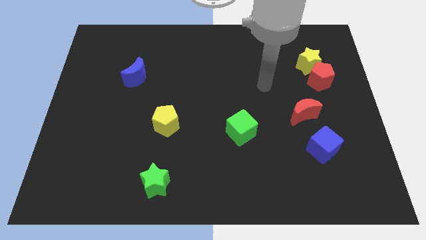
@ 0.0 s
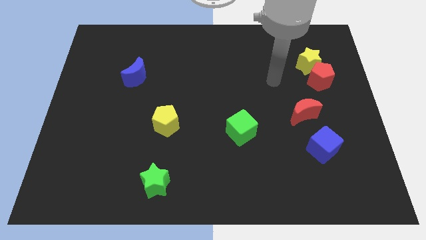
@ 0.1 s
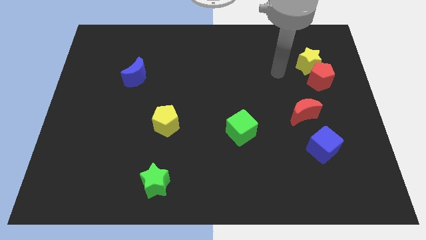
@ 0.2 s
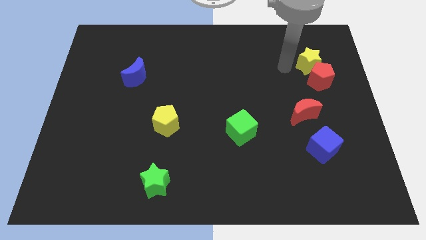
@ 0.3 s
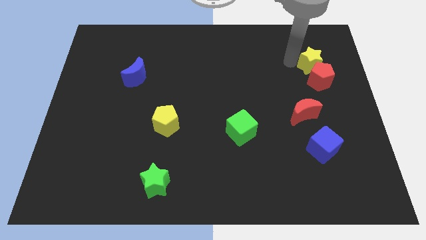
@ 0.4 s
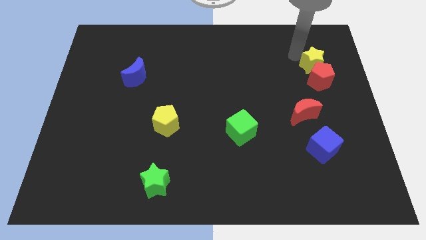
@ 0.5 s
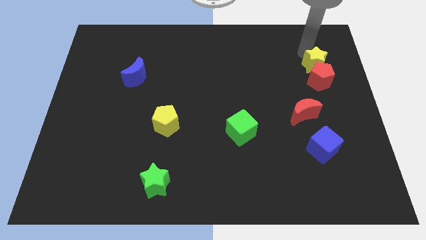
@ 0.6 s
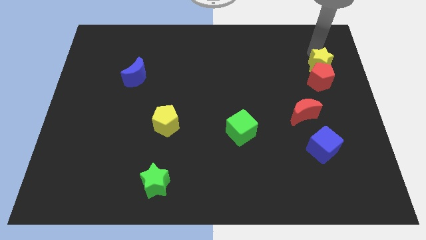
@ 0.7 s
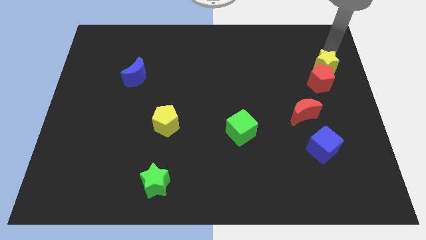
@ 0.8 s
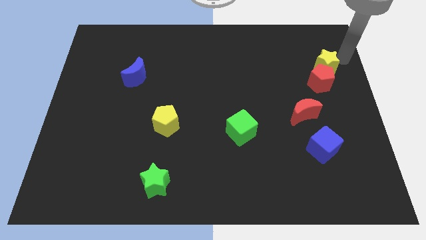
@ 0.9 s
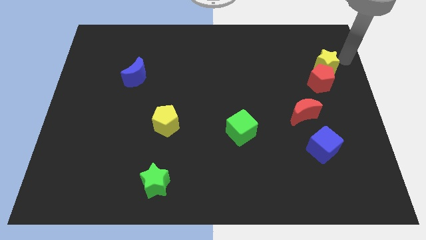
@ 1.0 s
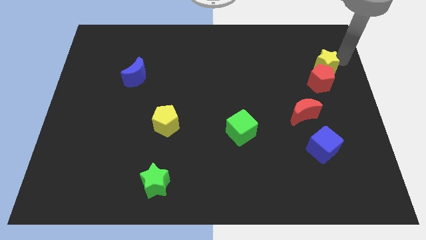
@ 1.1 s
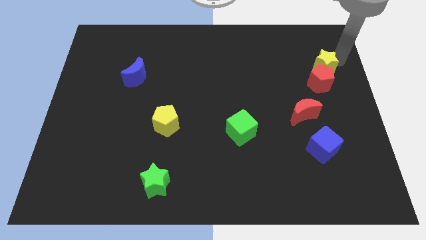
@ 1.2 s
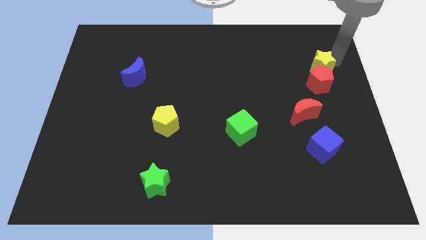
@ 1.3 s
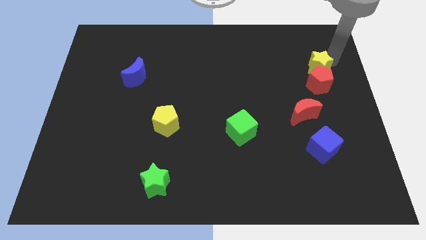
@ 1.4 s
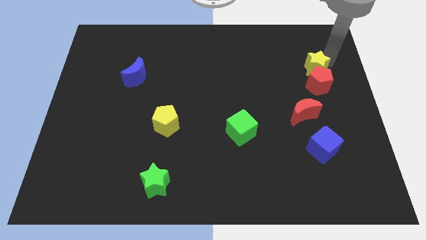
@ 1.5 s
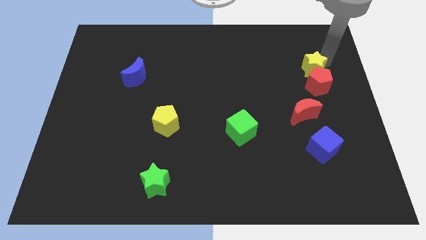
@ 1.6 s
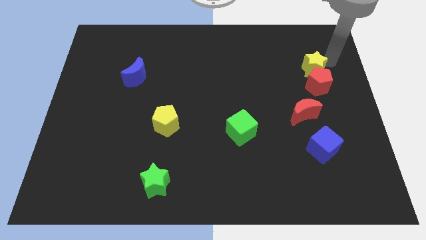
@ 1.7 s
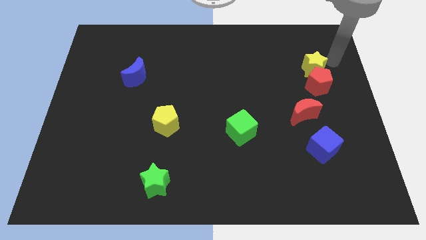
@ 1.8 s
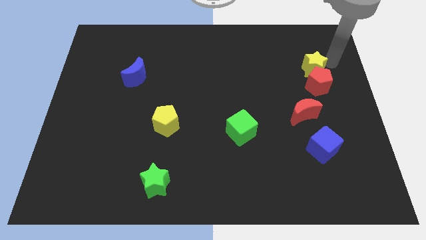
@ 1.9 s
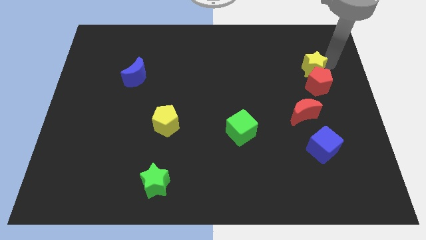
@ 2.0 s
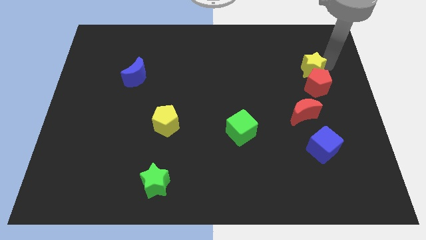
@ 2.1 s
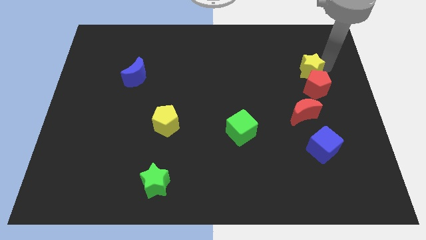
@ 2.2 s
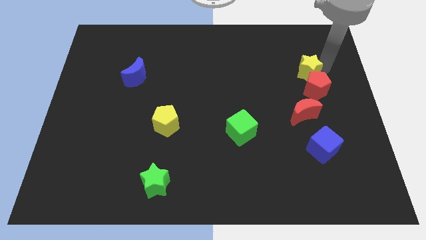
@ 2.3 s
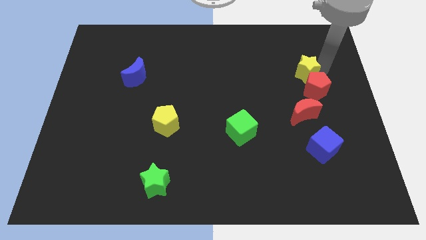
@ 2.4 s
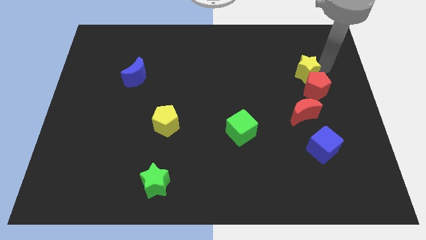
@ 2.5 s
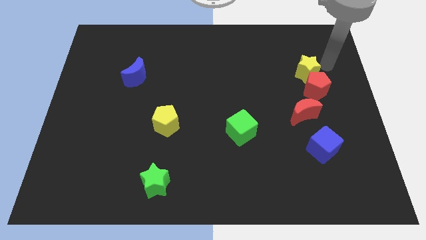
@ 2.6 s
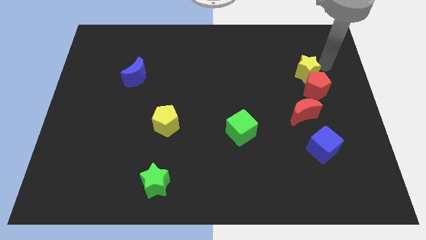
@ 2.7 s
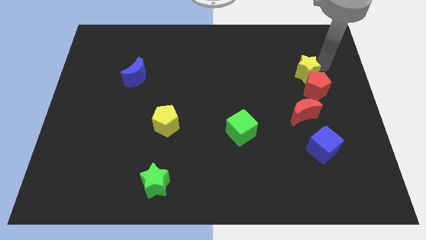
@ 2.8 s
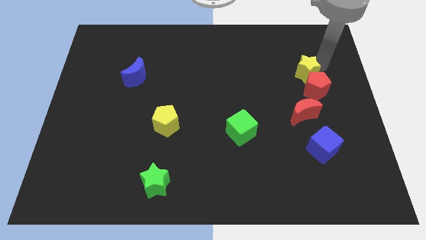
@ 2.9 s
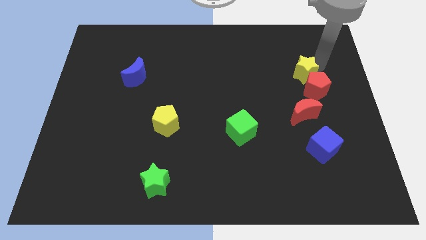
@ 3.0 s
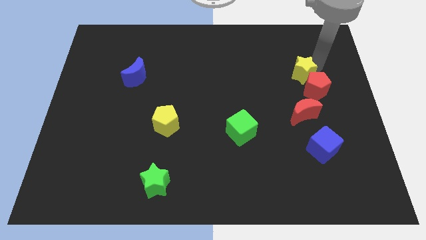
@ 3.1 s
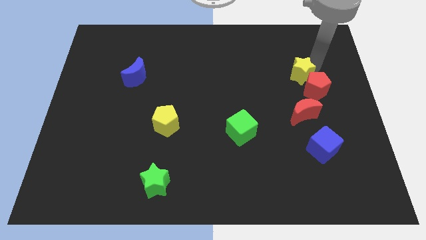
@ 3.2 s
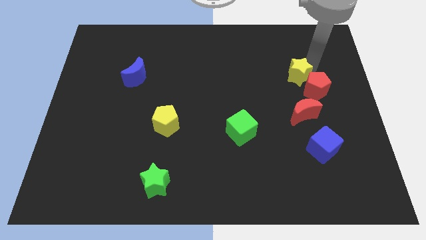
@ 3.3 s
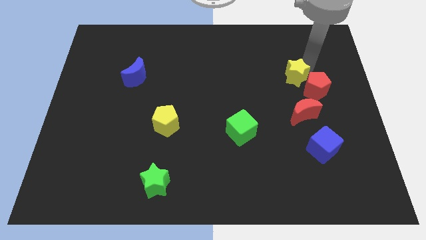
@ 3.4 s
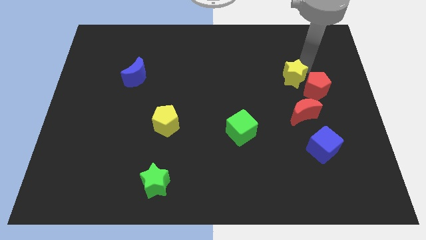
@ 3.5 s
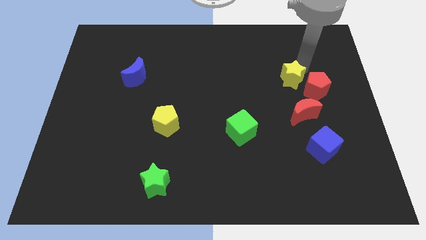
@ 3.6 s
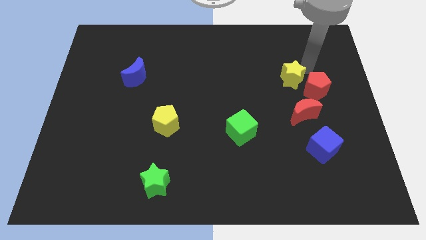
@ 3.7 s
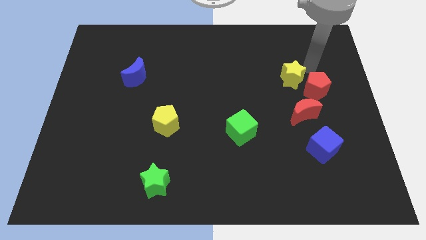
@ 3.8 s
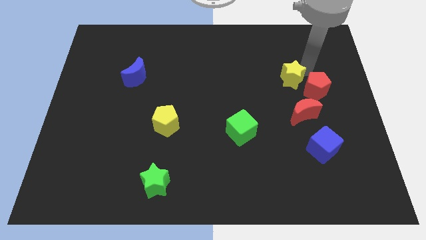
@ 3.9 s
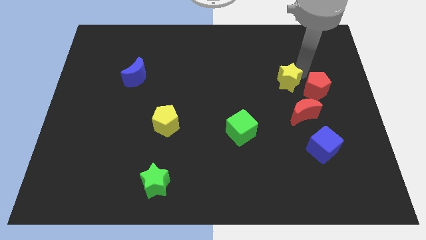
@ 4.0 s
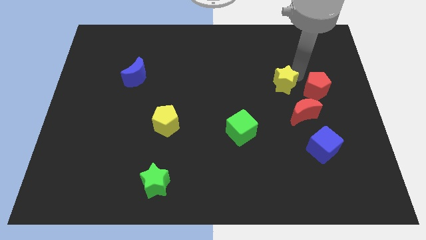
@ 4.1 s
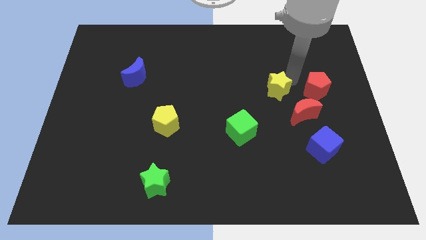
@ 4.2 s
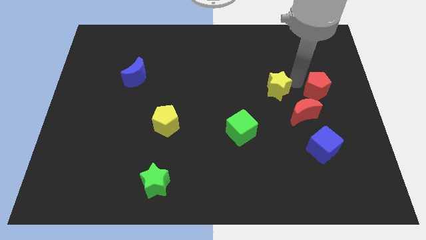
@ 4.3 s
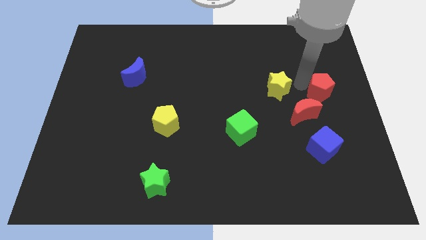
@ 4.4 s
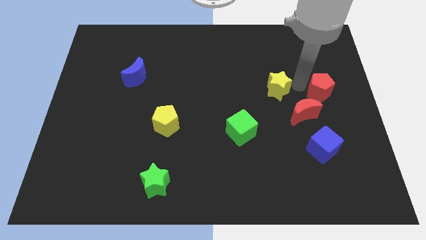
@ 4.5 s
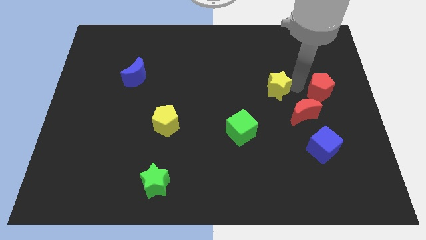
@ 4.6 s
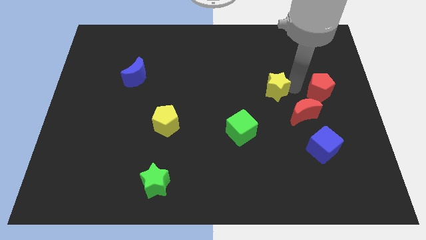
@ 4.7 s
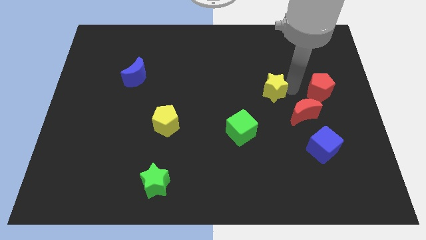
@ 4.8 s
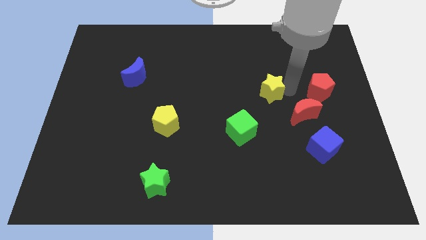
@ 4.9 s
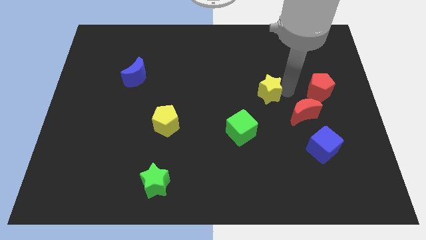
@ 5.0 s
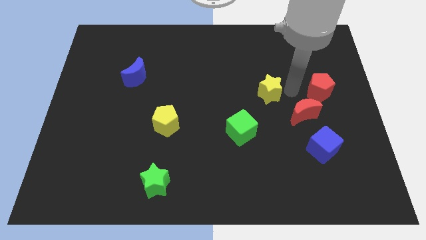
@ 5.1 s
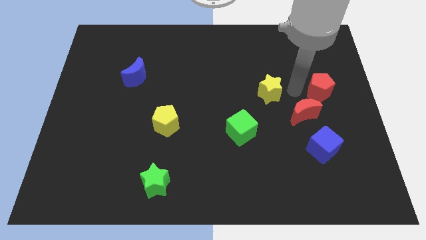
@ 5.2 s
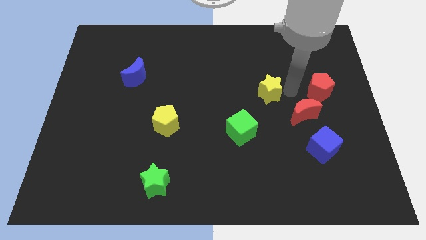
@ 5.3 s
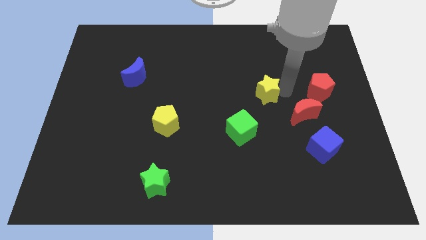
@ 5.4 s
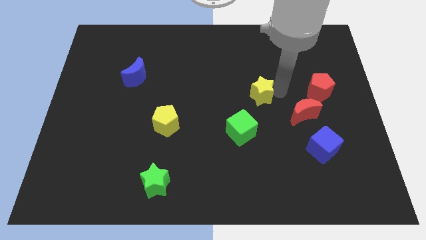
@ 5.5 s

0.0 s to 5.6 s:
put the yellow star to the middle of the board

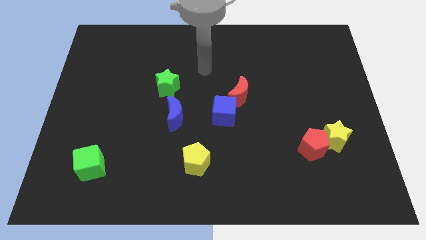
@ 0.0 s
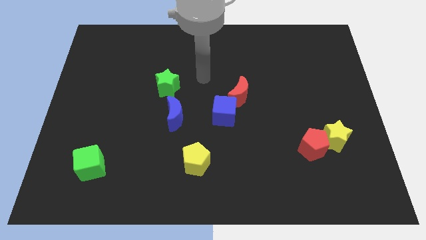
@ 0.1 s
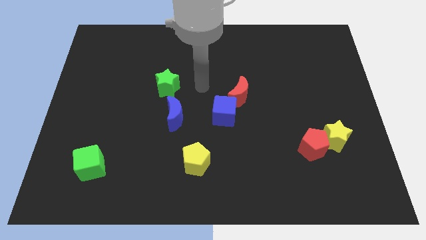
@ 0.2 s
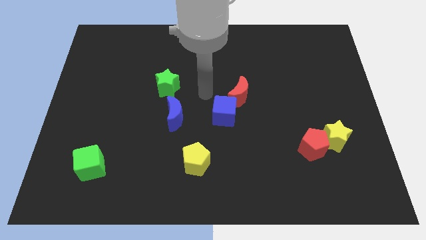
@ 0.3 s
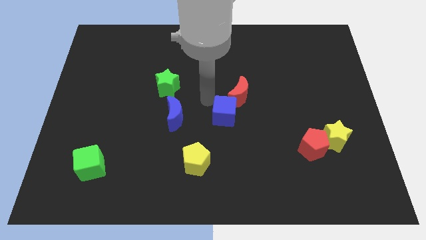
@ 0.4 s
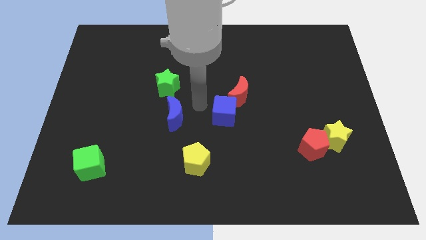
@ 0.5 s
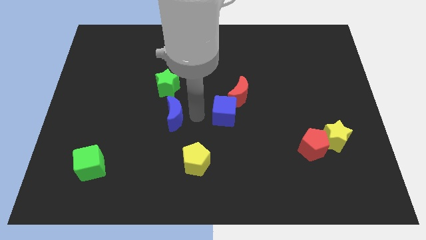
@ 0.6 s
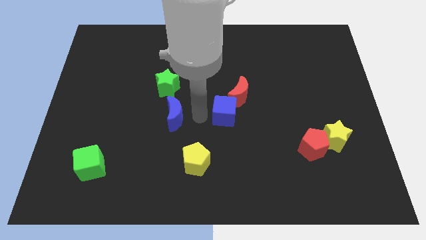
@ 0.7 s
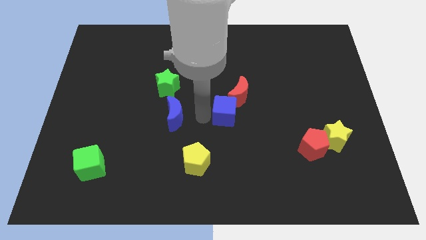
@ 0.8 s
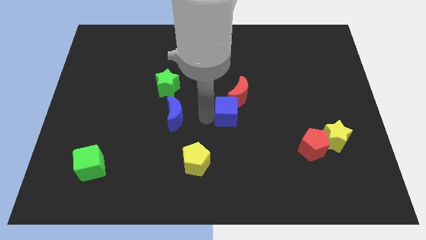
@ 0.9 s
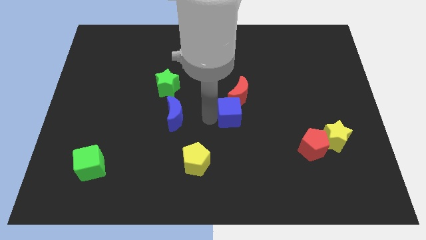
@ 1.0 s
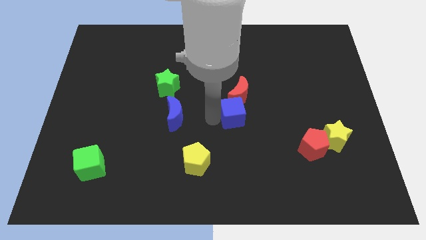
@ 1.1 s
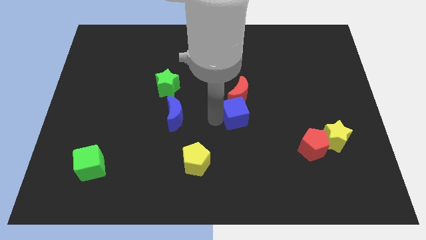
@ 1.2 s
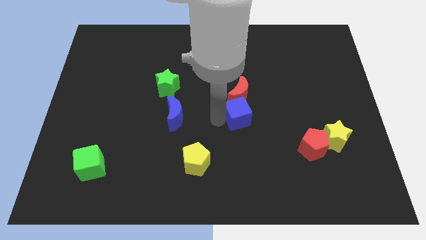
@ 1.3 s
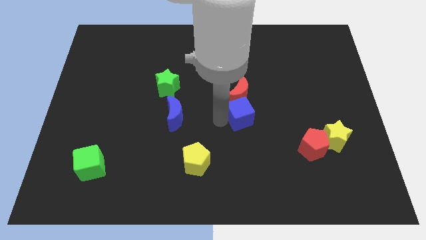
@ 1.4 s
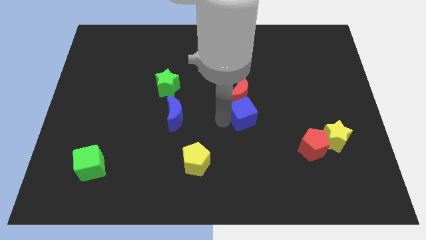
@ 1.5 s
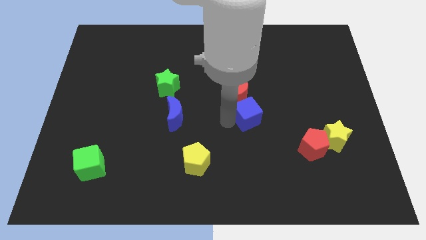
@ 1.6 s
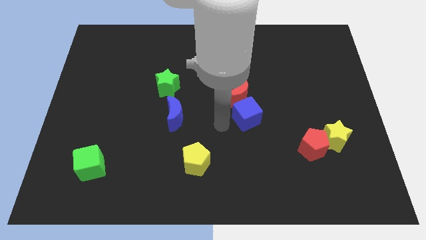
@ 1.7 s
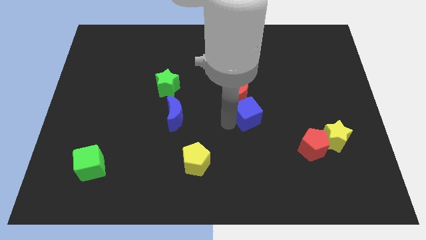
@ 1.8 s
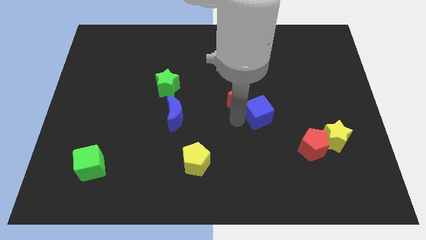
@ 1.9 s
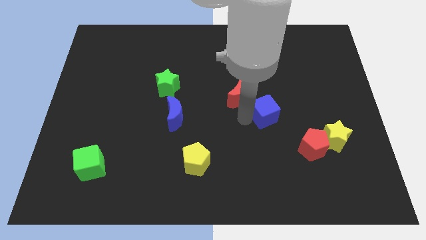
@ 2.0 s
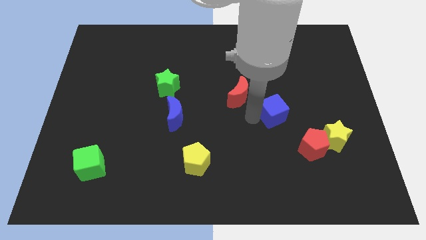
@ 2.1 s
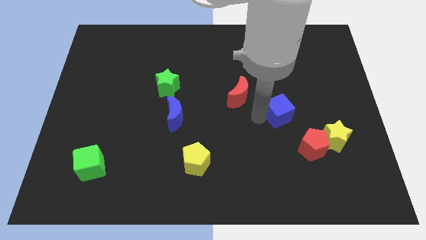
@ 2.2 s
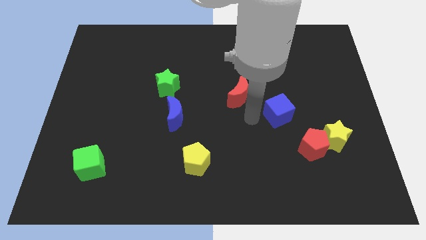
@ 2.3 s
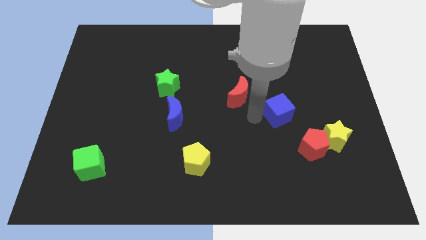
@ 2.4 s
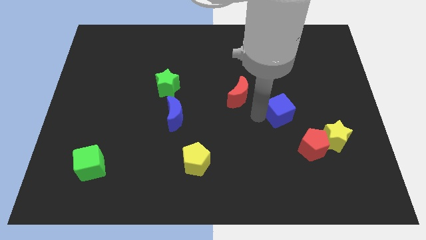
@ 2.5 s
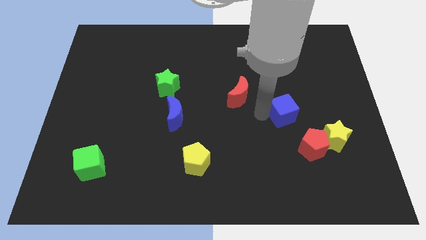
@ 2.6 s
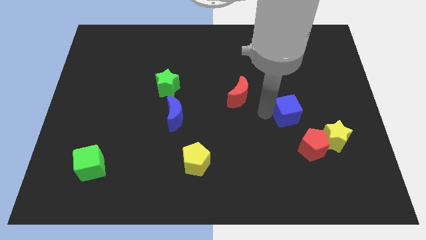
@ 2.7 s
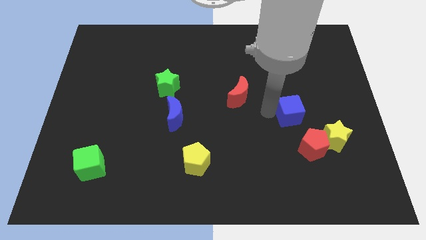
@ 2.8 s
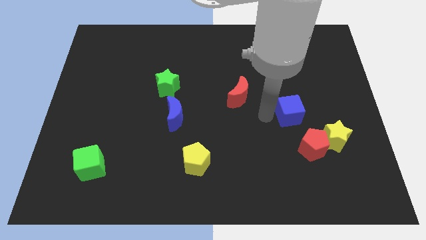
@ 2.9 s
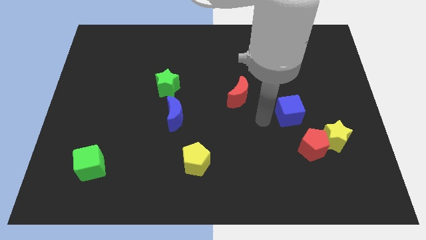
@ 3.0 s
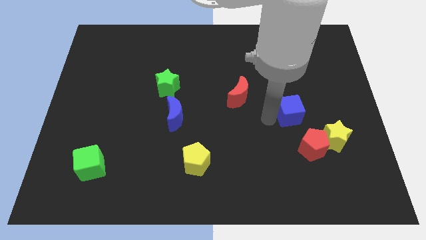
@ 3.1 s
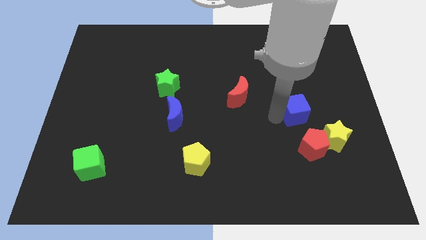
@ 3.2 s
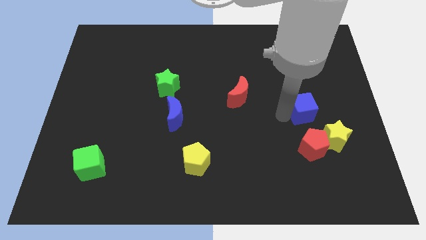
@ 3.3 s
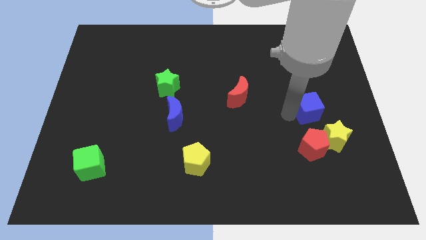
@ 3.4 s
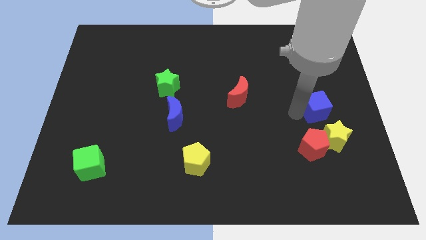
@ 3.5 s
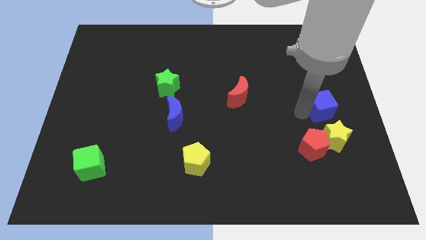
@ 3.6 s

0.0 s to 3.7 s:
move the blue cube to the center right
